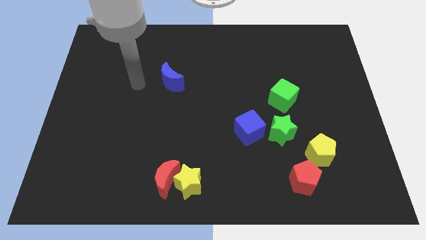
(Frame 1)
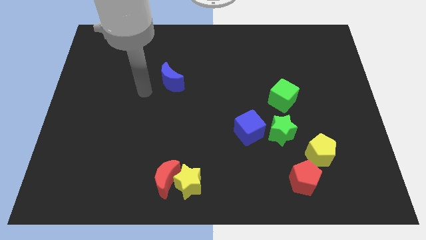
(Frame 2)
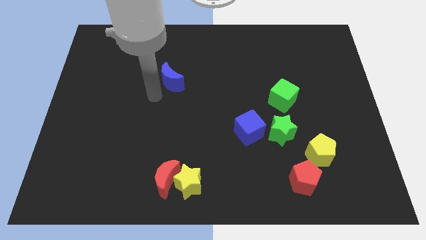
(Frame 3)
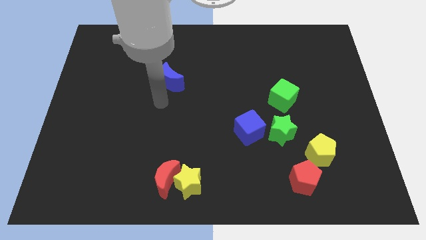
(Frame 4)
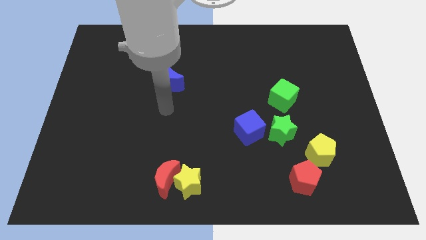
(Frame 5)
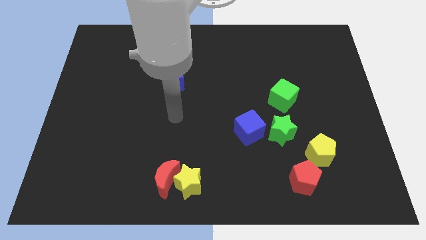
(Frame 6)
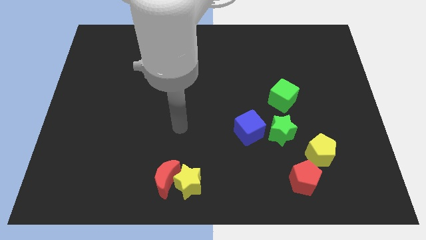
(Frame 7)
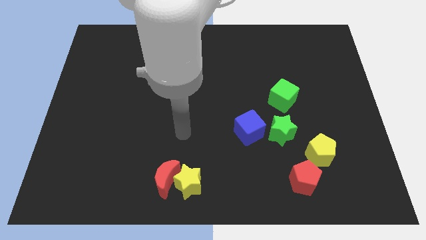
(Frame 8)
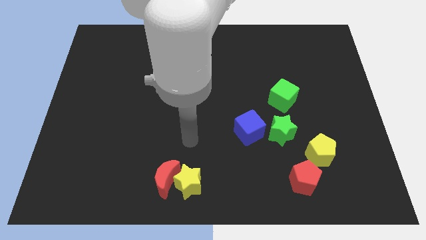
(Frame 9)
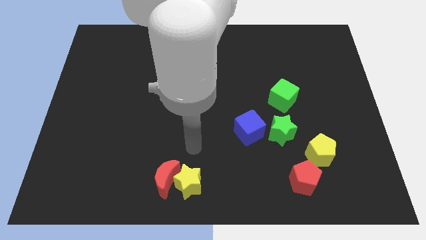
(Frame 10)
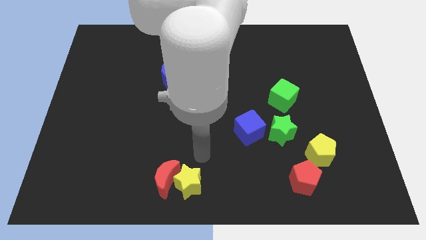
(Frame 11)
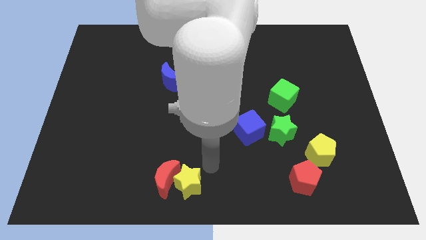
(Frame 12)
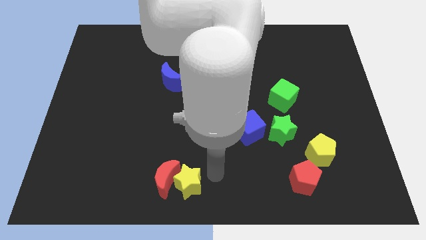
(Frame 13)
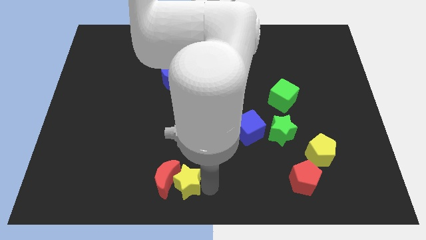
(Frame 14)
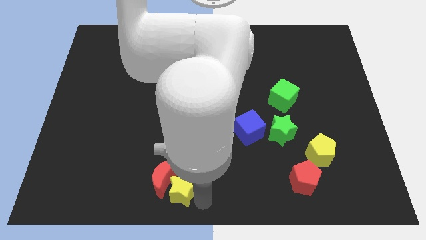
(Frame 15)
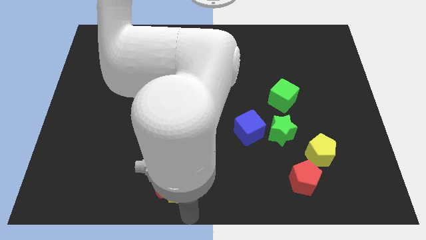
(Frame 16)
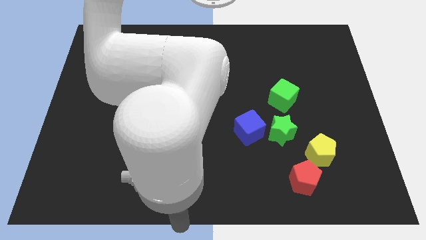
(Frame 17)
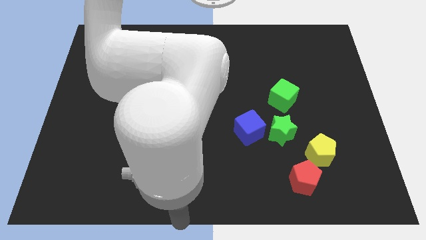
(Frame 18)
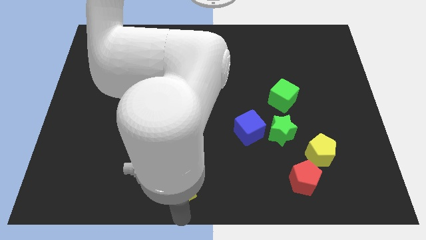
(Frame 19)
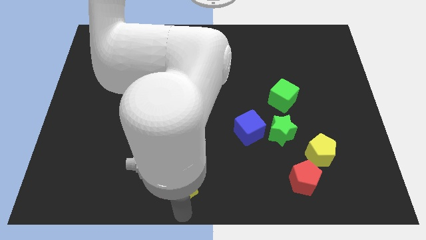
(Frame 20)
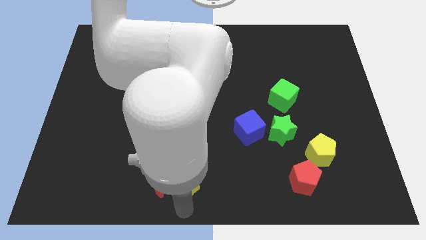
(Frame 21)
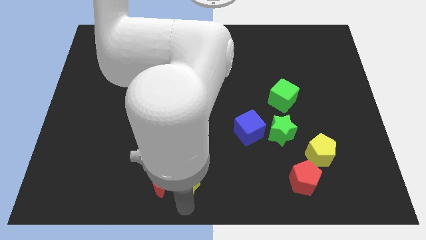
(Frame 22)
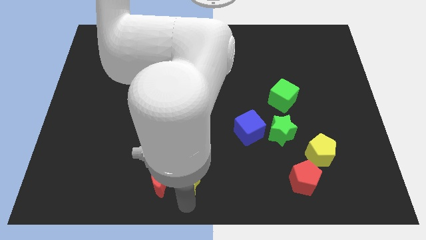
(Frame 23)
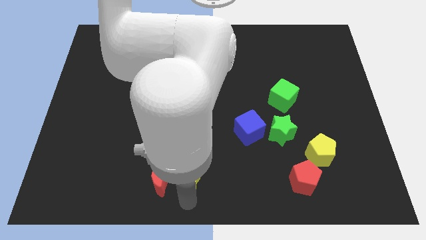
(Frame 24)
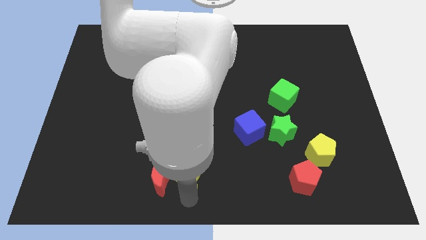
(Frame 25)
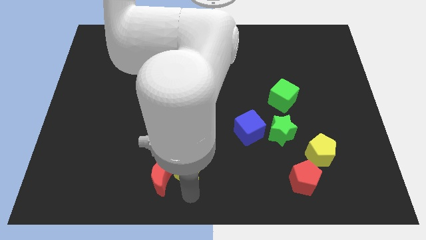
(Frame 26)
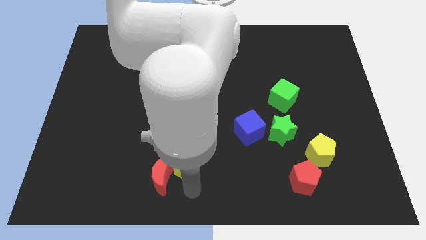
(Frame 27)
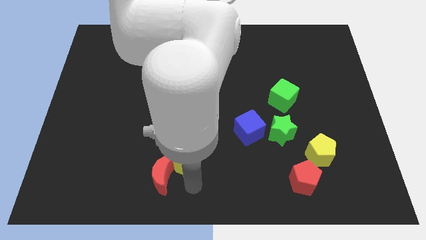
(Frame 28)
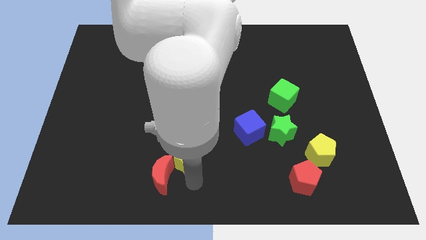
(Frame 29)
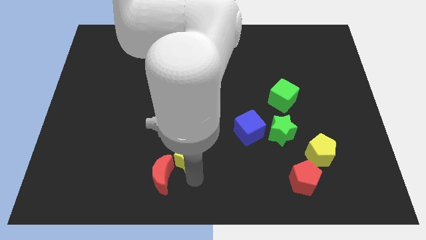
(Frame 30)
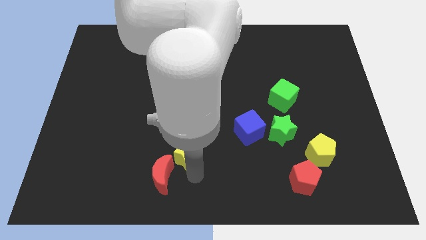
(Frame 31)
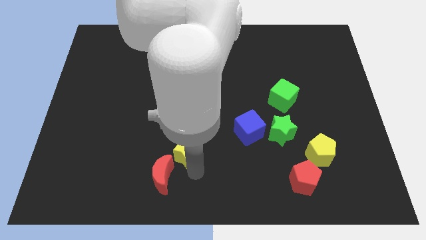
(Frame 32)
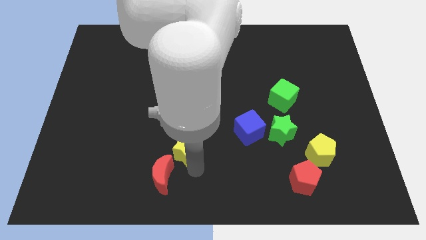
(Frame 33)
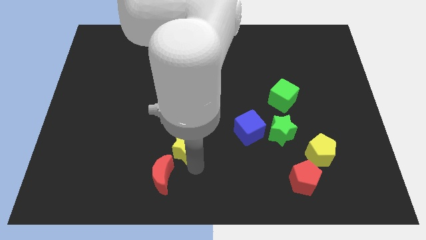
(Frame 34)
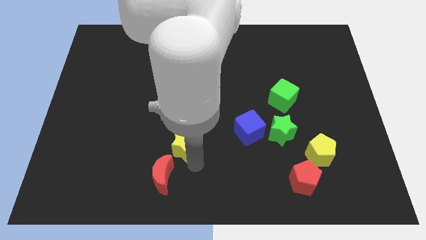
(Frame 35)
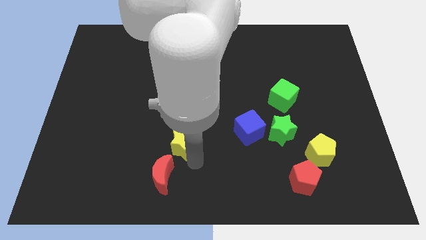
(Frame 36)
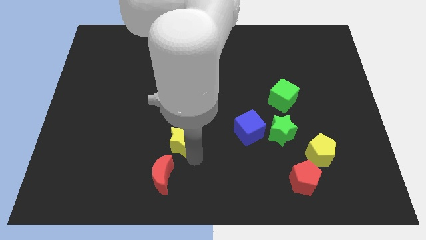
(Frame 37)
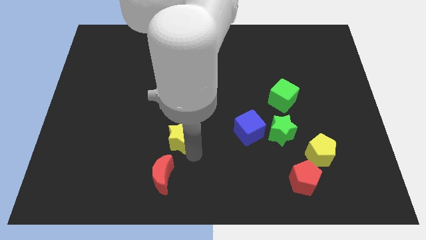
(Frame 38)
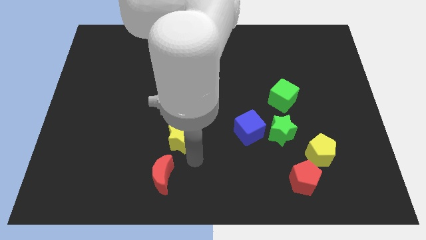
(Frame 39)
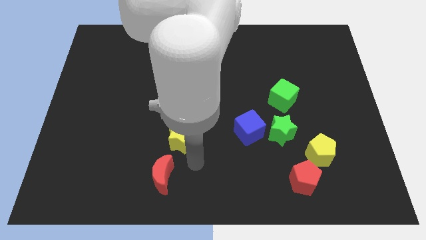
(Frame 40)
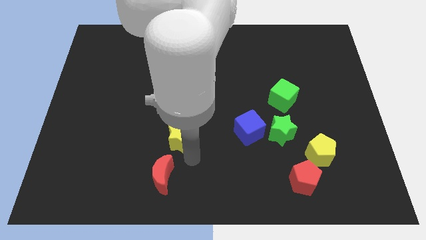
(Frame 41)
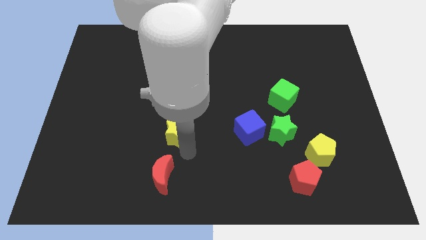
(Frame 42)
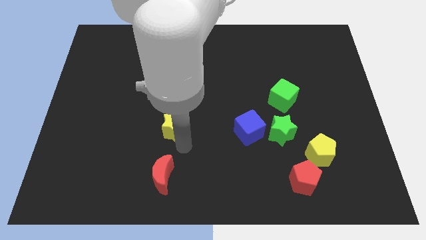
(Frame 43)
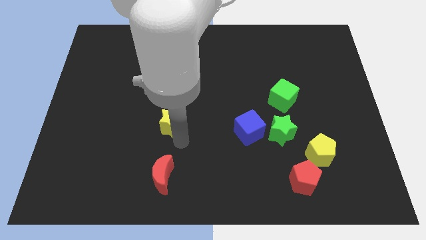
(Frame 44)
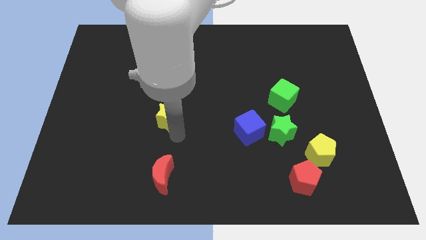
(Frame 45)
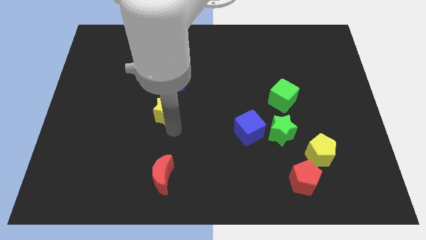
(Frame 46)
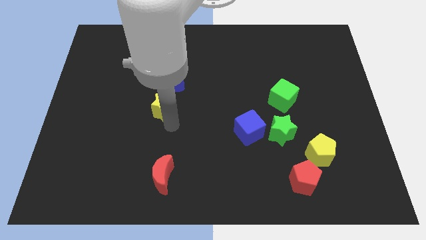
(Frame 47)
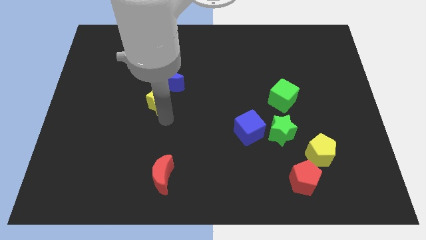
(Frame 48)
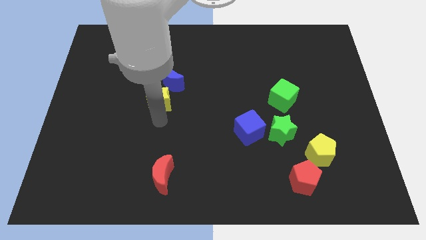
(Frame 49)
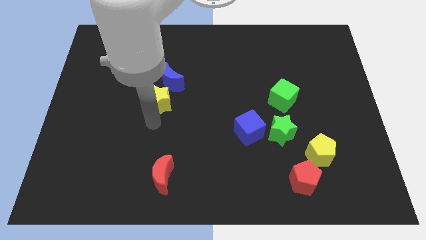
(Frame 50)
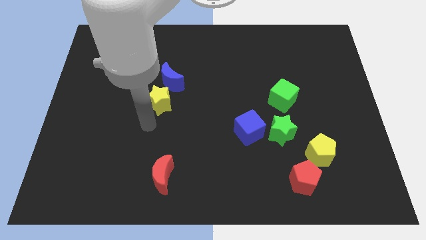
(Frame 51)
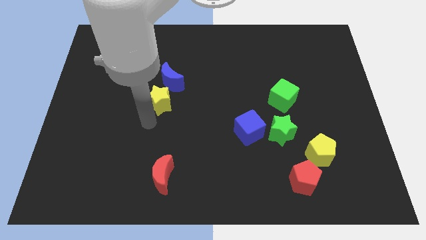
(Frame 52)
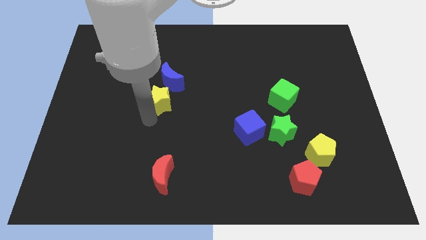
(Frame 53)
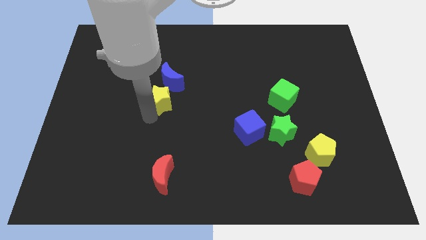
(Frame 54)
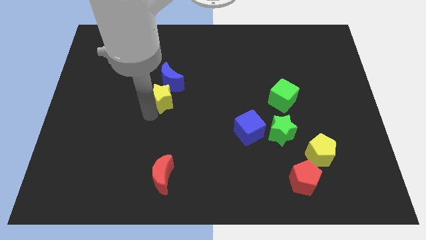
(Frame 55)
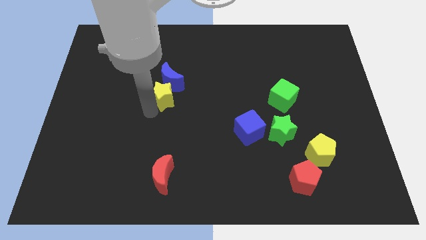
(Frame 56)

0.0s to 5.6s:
push the yellow star to the blue moon

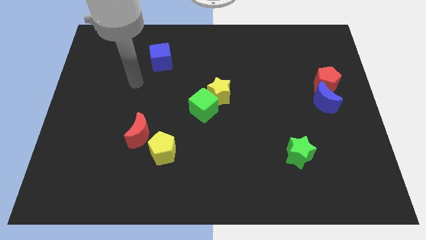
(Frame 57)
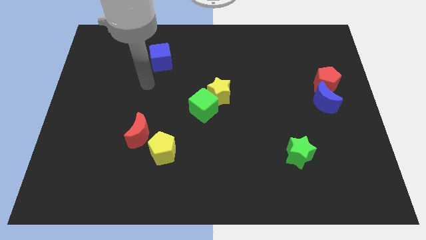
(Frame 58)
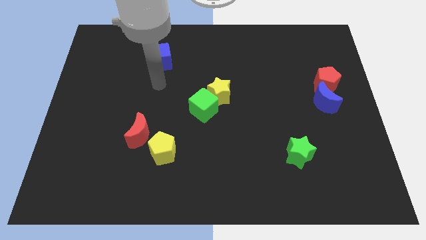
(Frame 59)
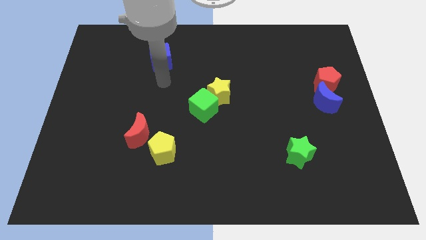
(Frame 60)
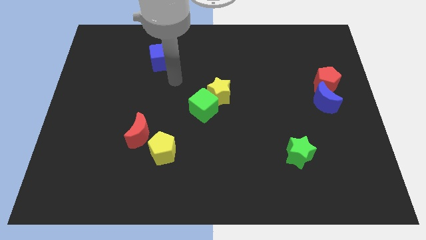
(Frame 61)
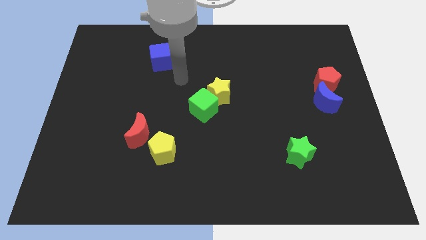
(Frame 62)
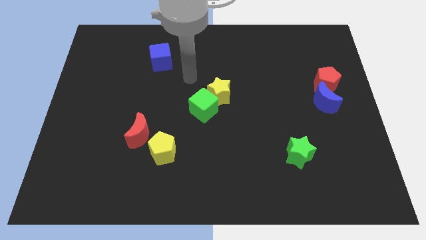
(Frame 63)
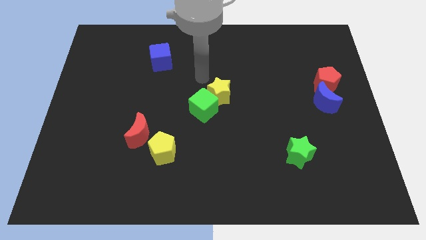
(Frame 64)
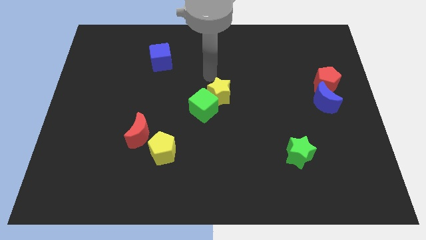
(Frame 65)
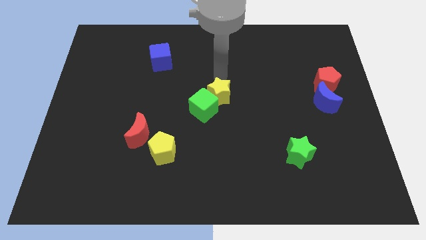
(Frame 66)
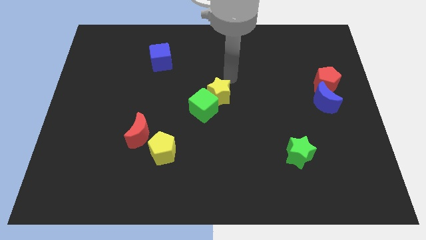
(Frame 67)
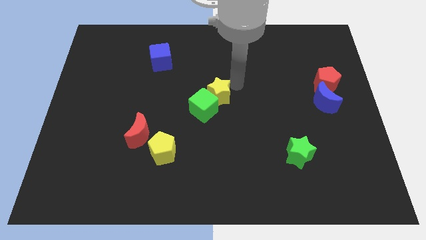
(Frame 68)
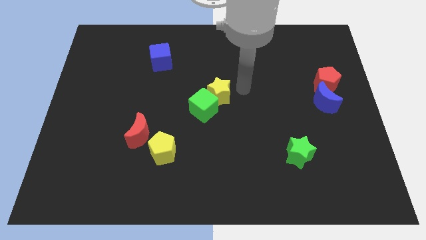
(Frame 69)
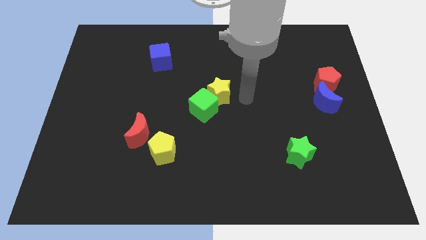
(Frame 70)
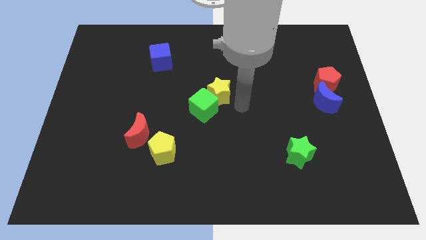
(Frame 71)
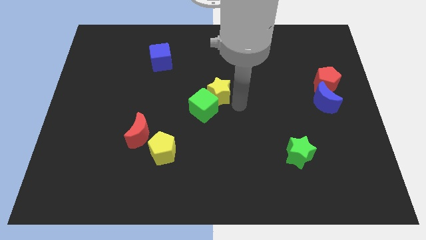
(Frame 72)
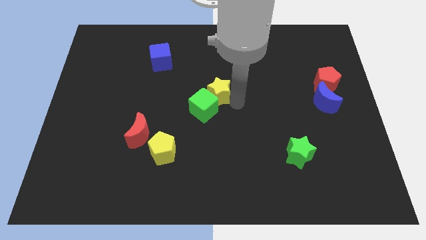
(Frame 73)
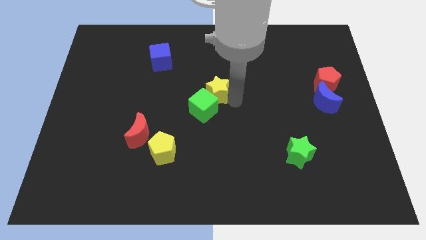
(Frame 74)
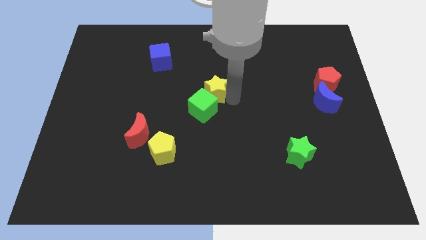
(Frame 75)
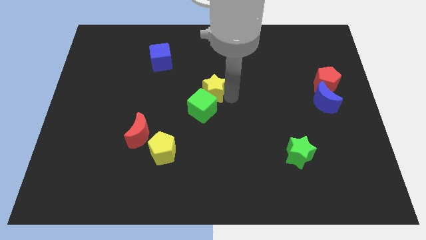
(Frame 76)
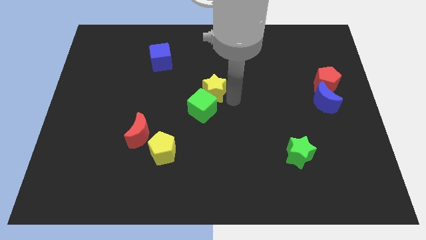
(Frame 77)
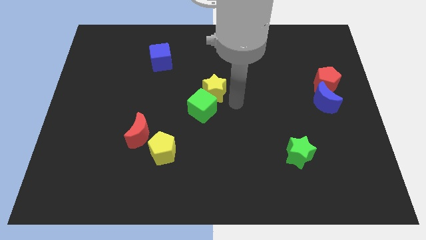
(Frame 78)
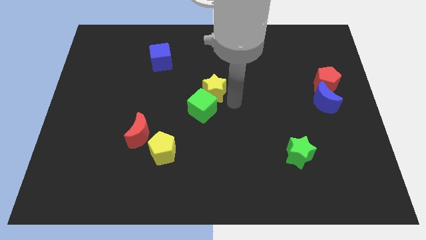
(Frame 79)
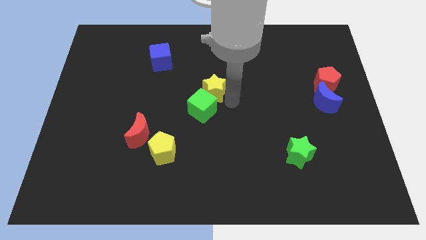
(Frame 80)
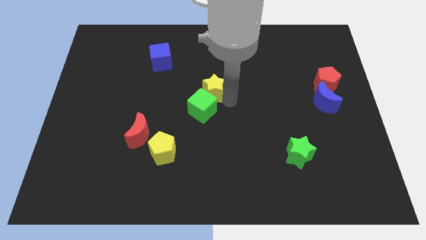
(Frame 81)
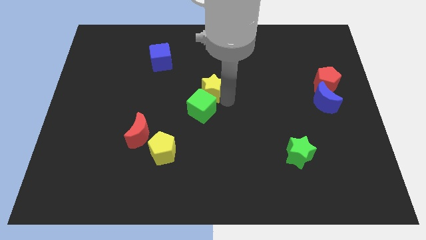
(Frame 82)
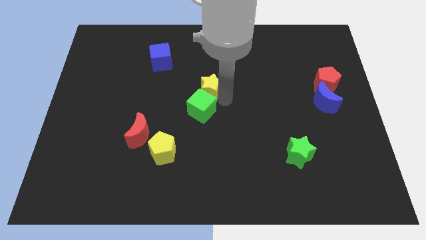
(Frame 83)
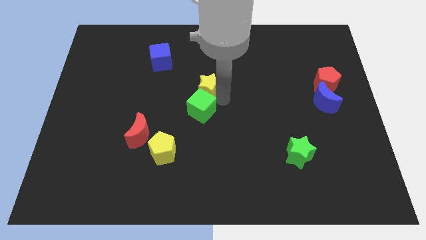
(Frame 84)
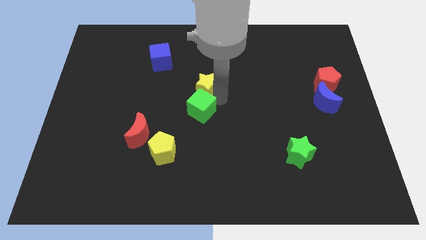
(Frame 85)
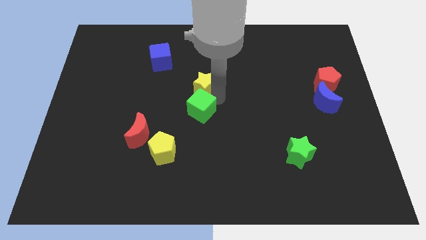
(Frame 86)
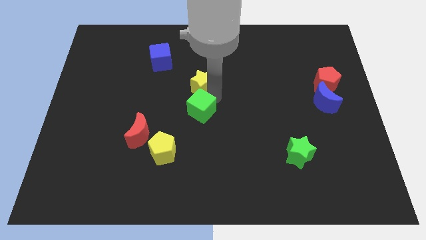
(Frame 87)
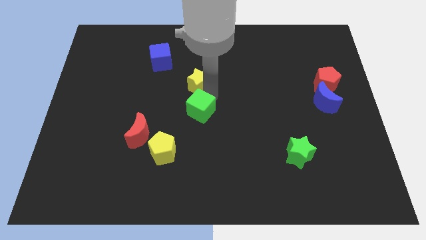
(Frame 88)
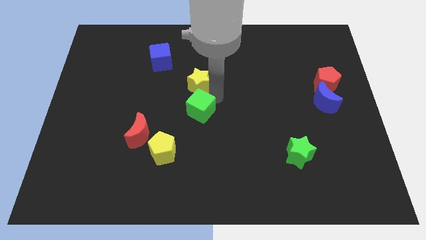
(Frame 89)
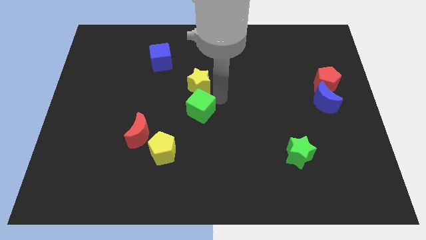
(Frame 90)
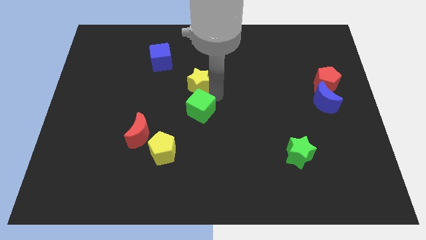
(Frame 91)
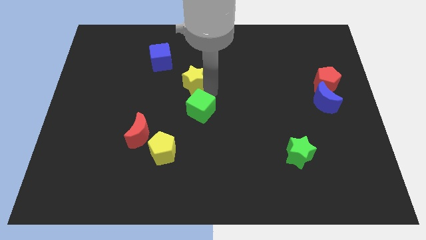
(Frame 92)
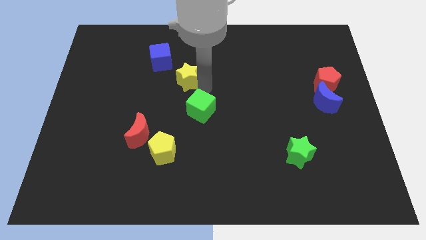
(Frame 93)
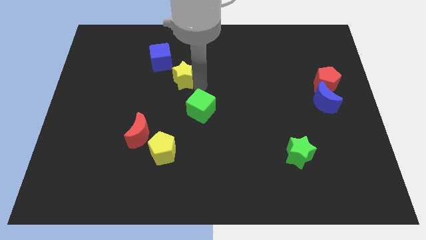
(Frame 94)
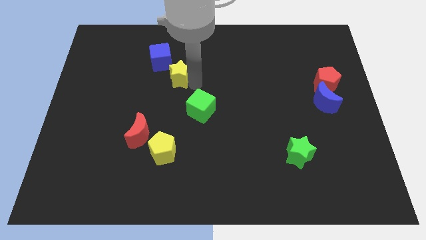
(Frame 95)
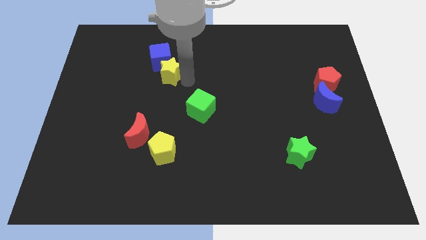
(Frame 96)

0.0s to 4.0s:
slide the yellow star to the blue cube
